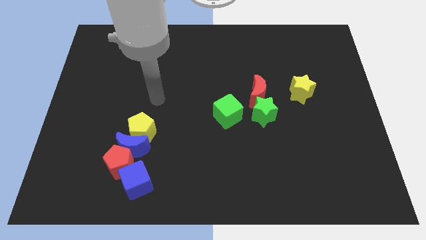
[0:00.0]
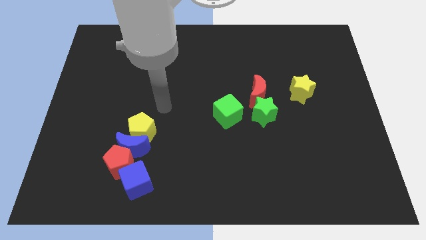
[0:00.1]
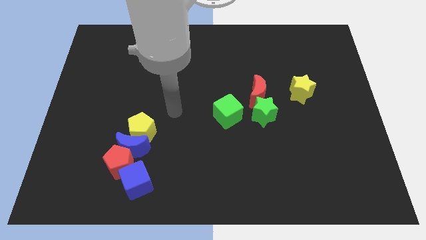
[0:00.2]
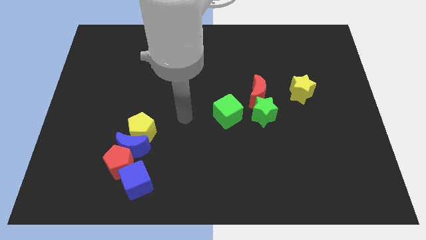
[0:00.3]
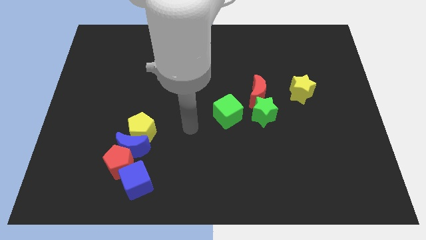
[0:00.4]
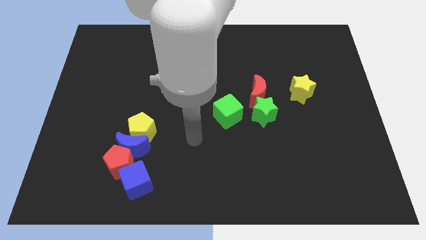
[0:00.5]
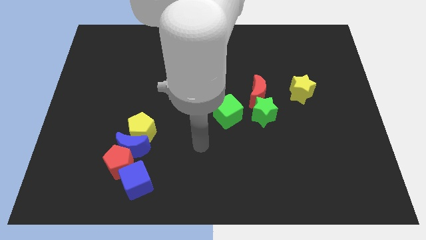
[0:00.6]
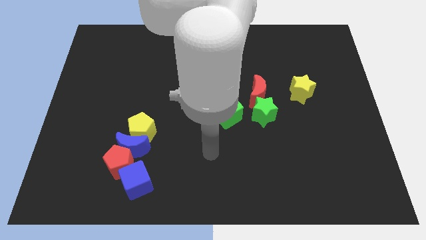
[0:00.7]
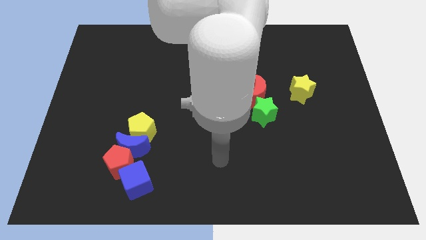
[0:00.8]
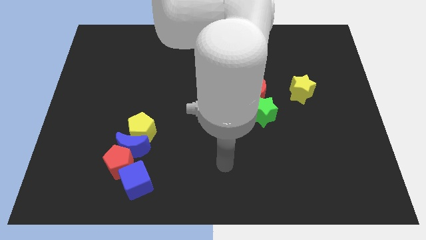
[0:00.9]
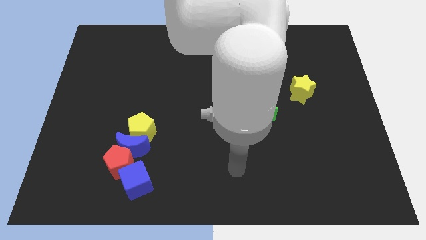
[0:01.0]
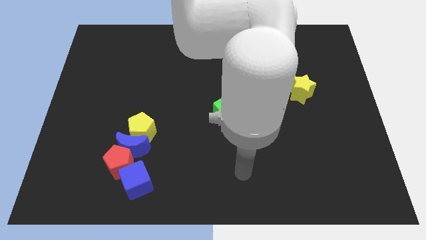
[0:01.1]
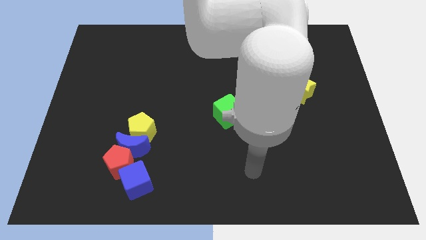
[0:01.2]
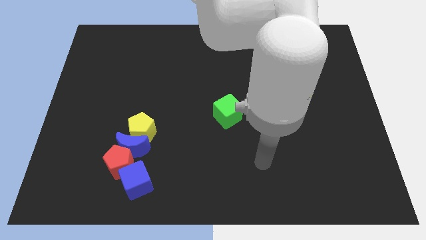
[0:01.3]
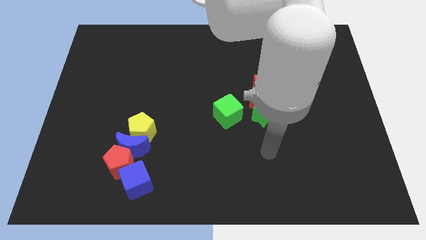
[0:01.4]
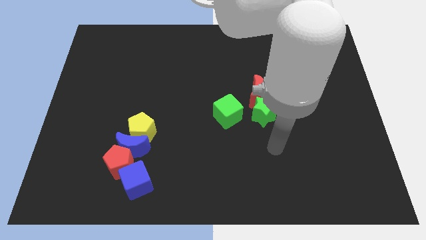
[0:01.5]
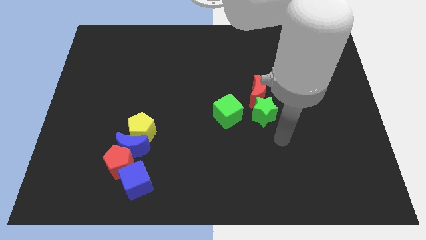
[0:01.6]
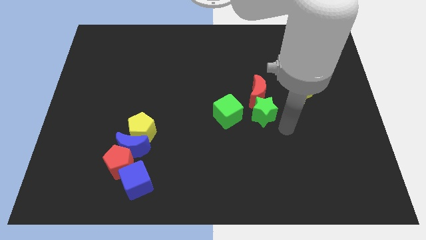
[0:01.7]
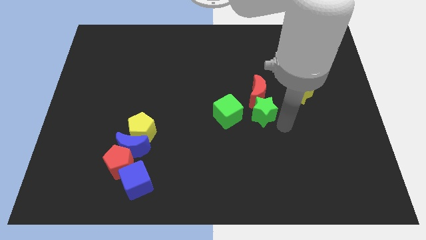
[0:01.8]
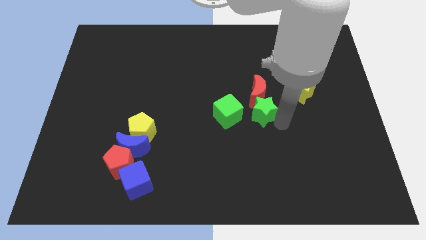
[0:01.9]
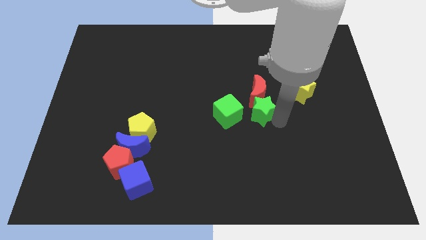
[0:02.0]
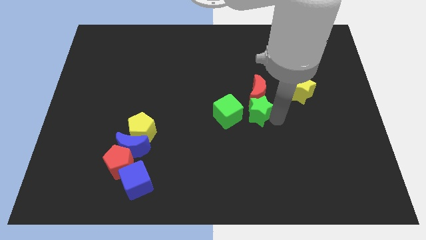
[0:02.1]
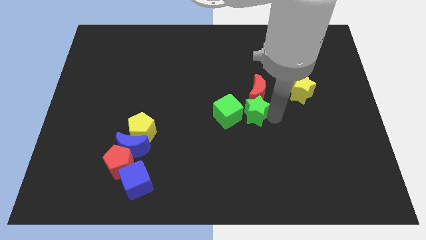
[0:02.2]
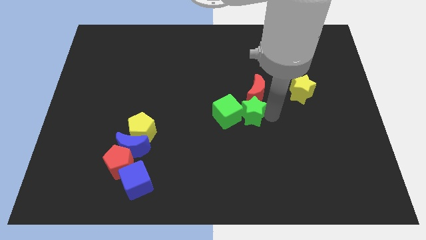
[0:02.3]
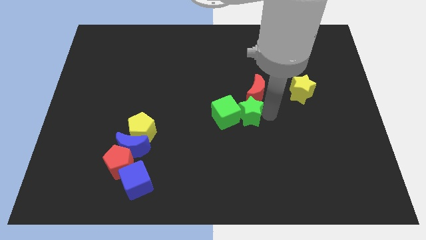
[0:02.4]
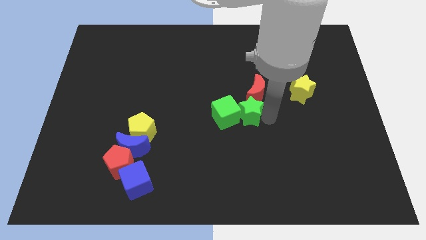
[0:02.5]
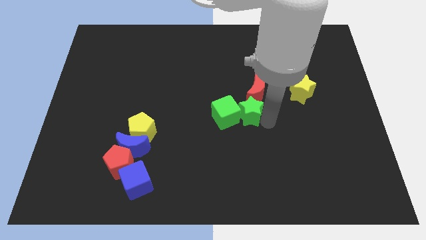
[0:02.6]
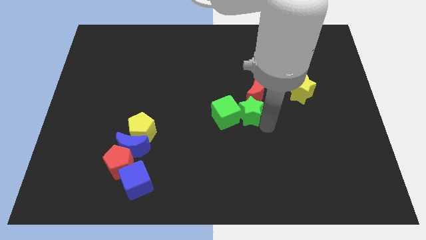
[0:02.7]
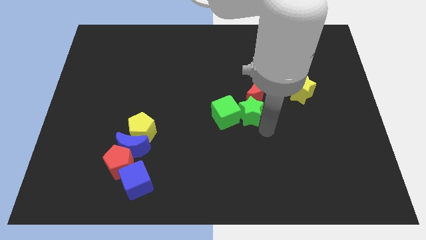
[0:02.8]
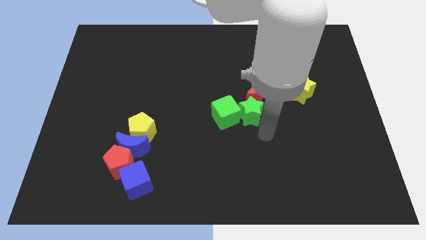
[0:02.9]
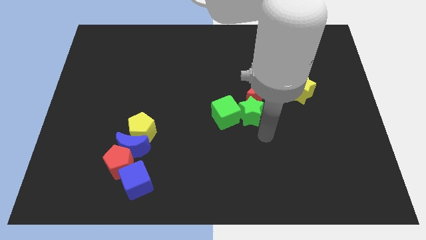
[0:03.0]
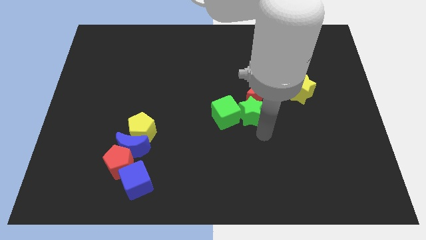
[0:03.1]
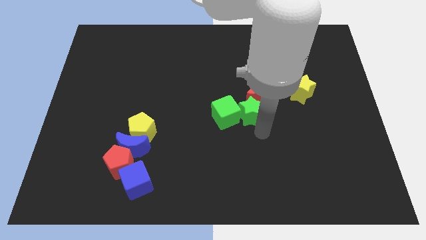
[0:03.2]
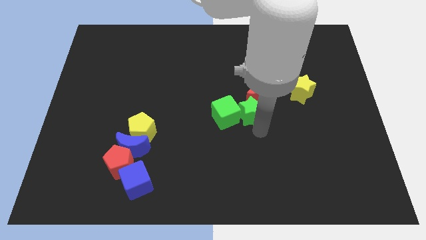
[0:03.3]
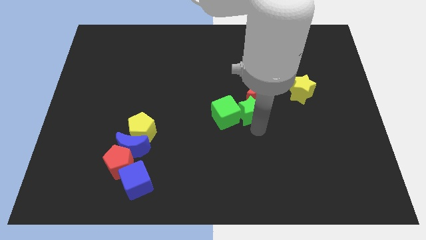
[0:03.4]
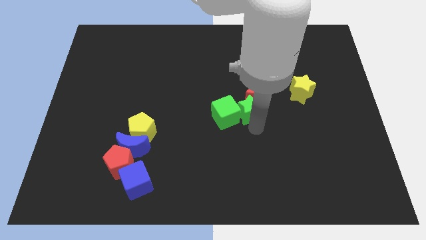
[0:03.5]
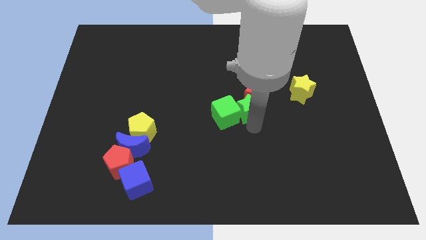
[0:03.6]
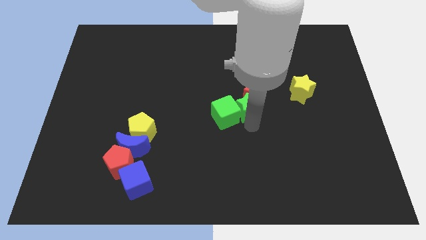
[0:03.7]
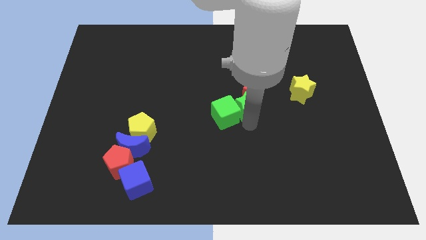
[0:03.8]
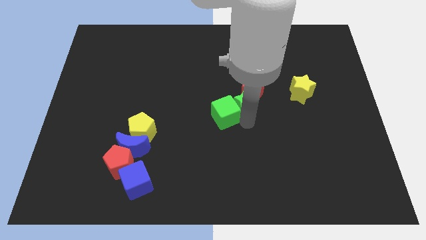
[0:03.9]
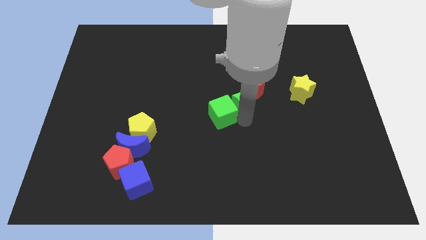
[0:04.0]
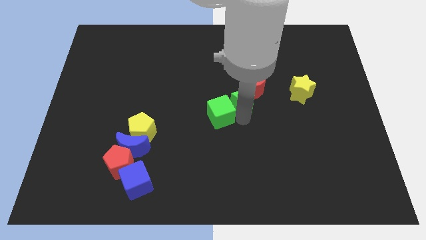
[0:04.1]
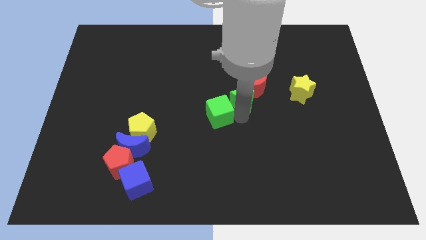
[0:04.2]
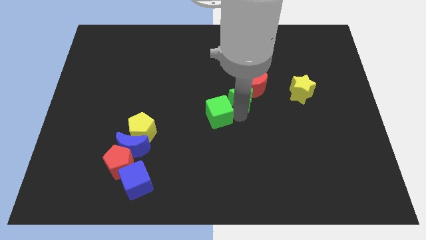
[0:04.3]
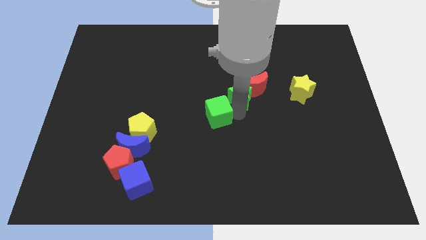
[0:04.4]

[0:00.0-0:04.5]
move the green star above the green cube

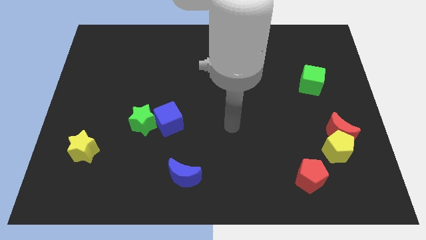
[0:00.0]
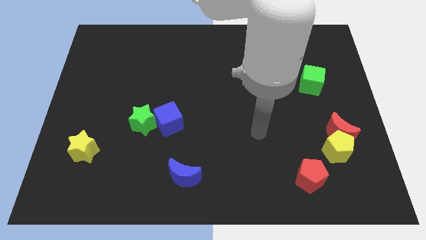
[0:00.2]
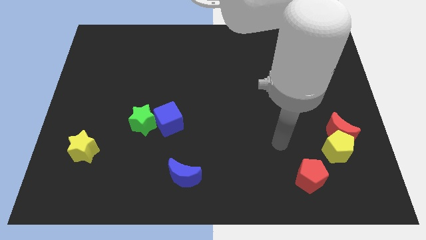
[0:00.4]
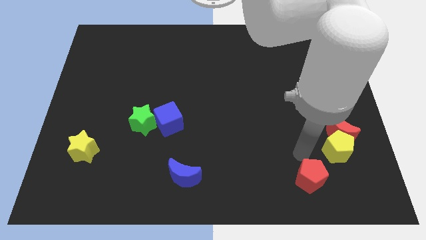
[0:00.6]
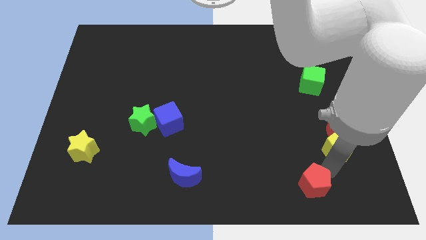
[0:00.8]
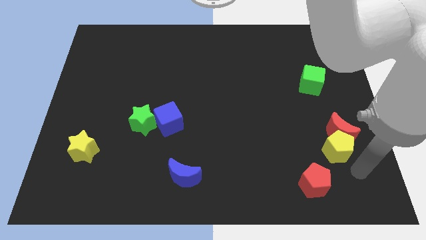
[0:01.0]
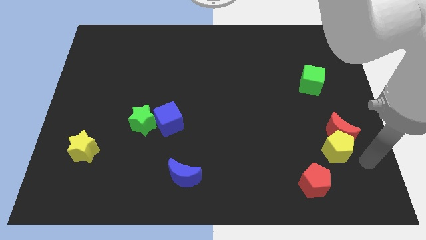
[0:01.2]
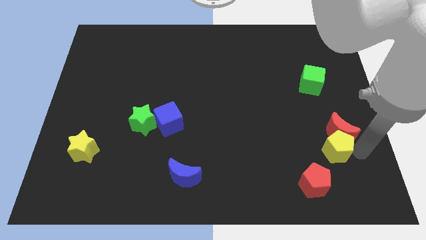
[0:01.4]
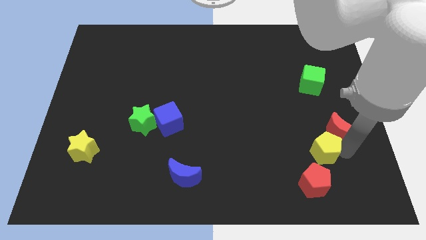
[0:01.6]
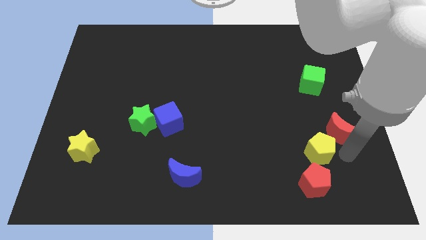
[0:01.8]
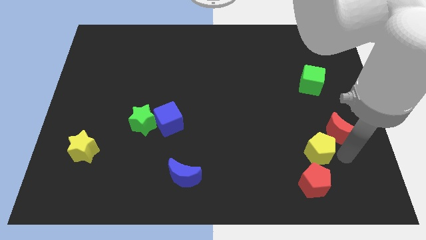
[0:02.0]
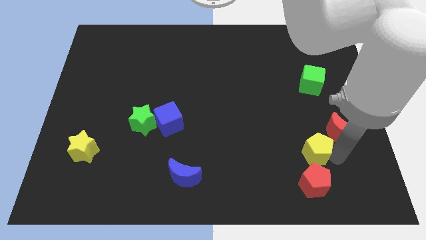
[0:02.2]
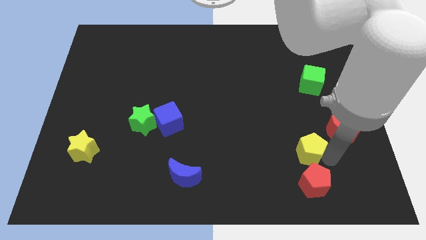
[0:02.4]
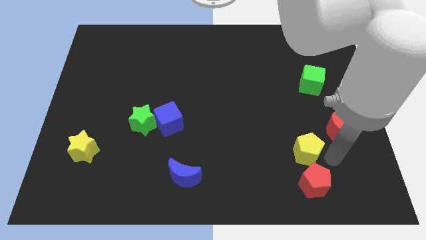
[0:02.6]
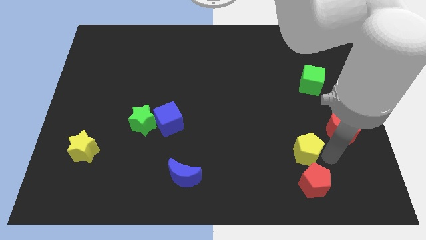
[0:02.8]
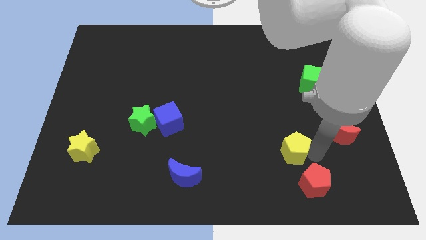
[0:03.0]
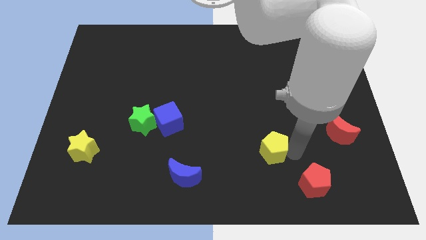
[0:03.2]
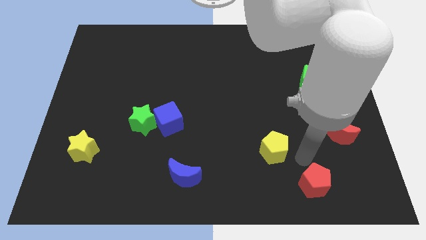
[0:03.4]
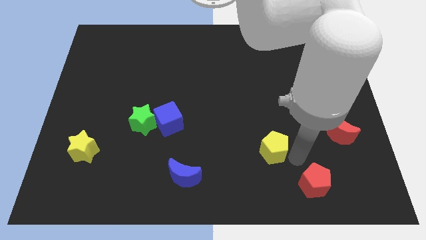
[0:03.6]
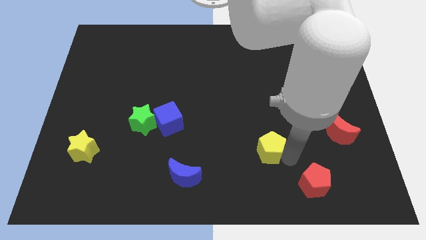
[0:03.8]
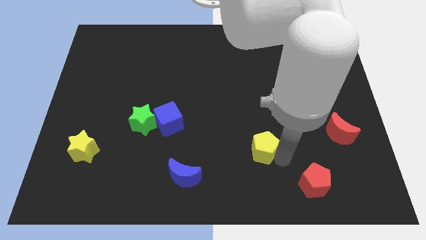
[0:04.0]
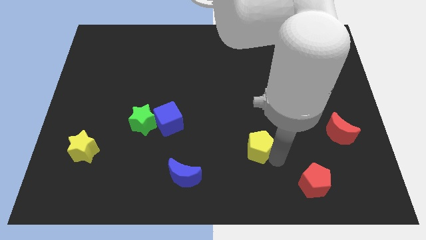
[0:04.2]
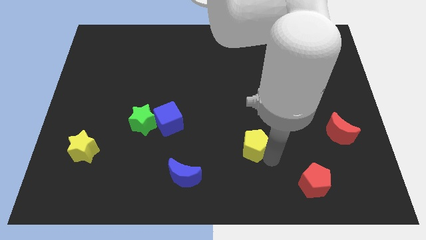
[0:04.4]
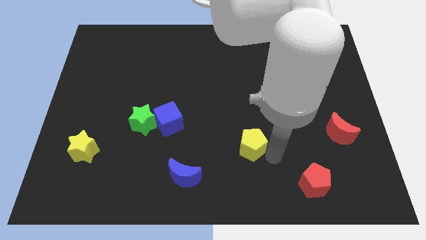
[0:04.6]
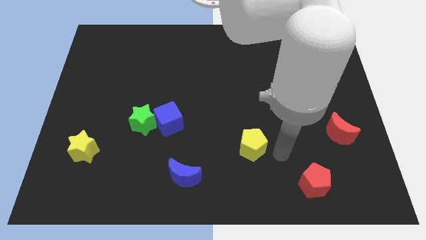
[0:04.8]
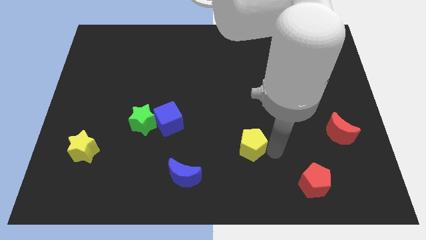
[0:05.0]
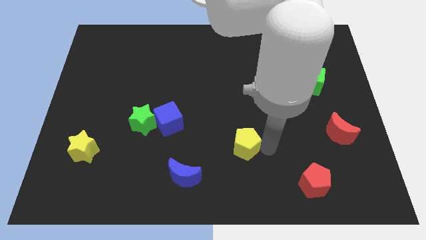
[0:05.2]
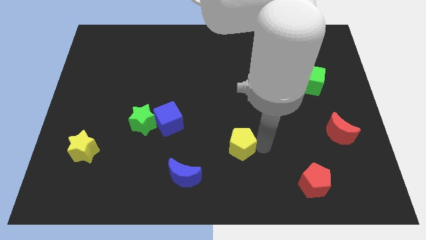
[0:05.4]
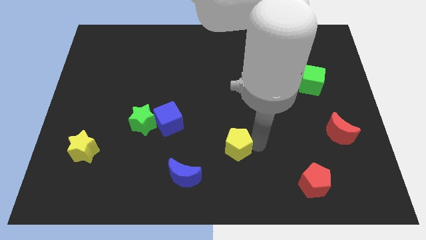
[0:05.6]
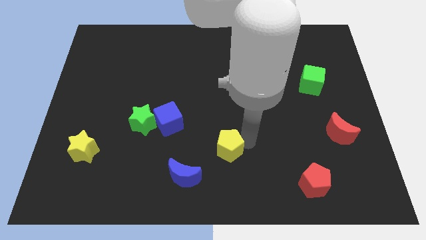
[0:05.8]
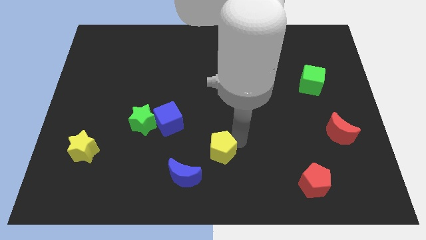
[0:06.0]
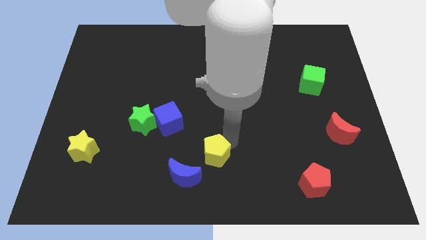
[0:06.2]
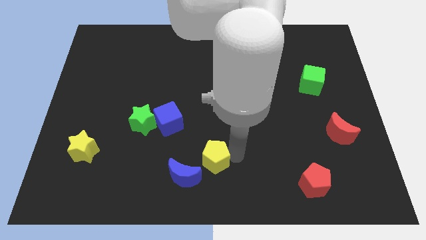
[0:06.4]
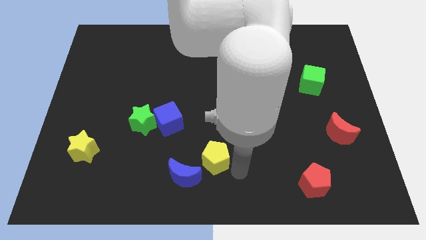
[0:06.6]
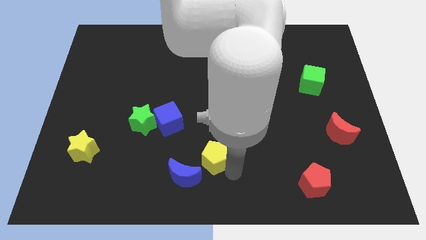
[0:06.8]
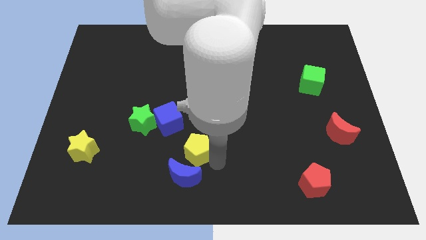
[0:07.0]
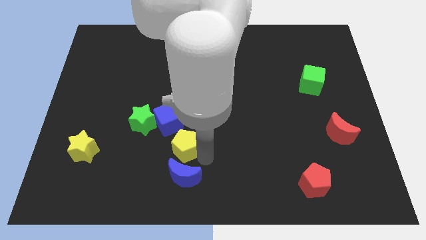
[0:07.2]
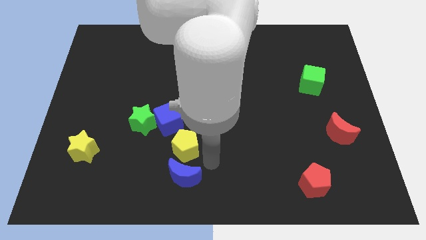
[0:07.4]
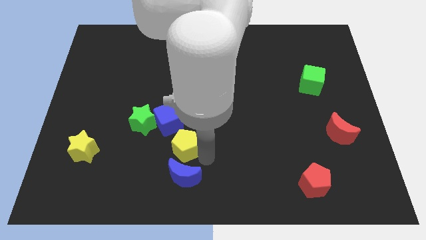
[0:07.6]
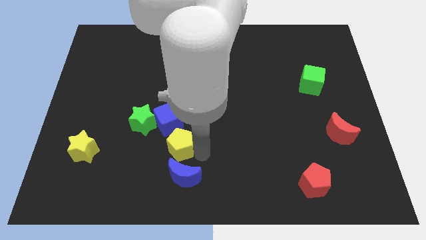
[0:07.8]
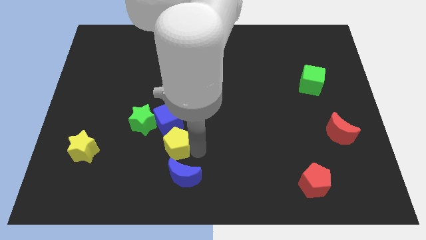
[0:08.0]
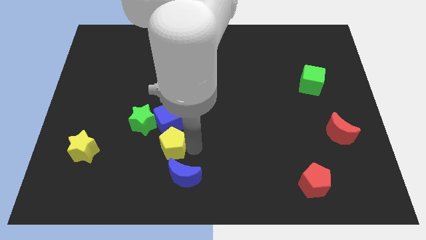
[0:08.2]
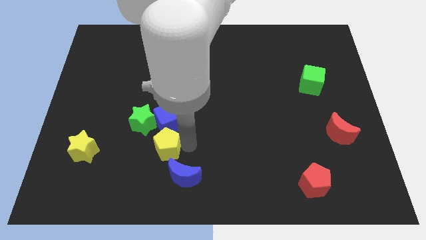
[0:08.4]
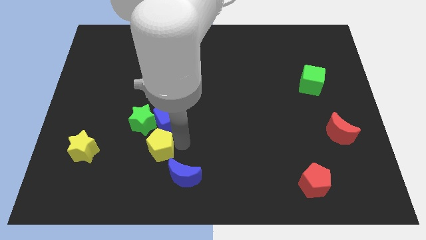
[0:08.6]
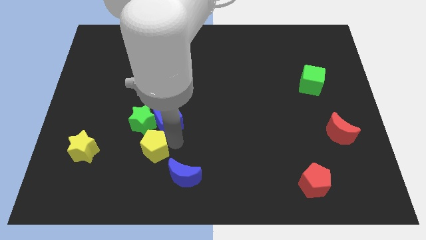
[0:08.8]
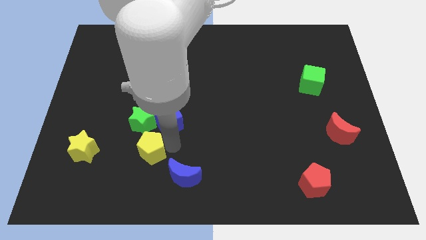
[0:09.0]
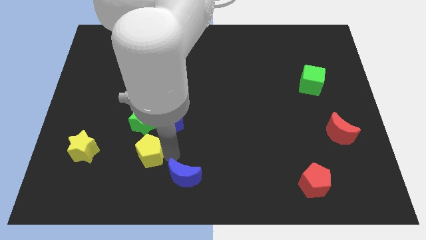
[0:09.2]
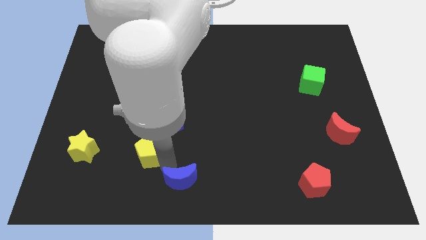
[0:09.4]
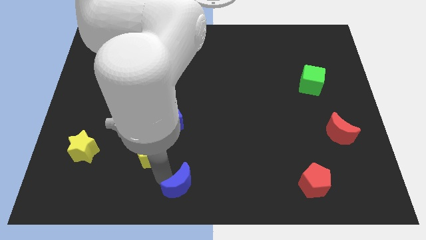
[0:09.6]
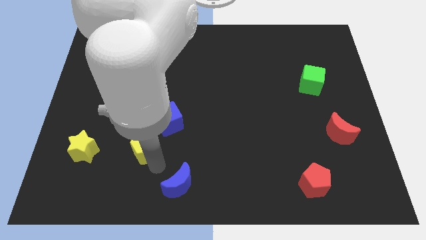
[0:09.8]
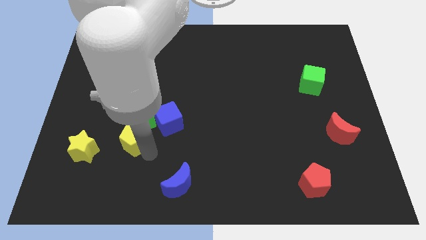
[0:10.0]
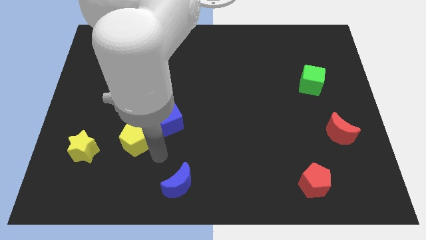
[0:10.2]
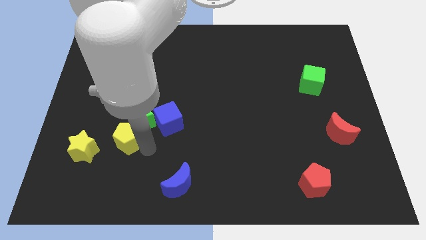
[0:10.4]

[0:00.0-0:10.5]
push the yellow pentagon to the top right of the yellow star
